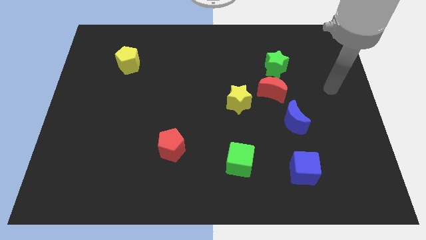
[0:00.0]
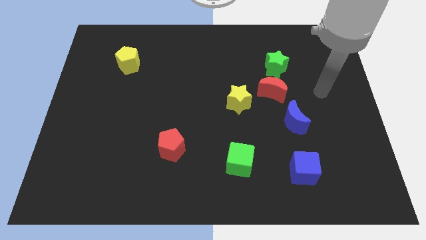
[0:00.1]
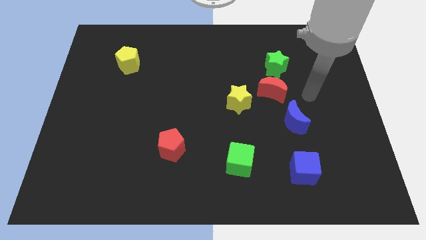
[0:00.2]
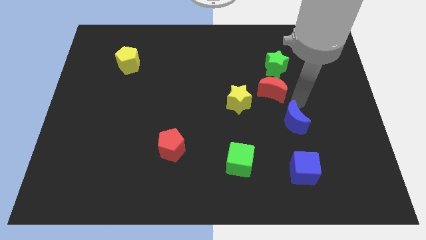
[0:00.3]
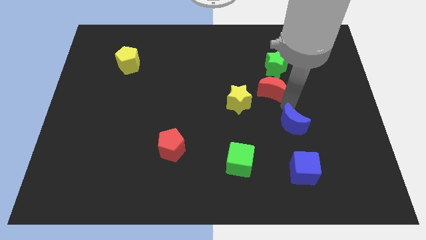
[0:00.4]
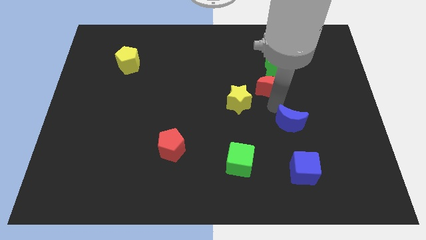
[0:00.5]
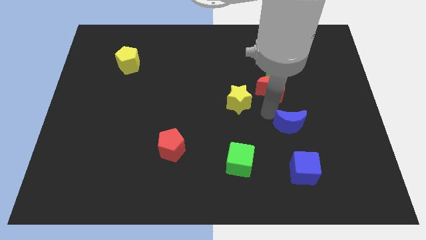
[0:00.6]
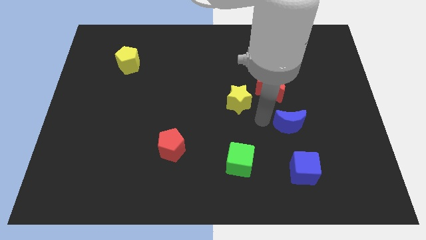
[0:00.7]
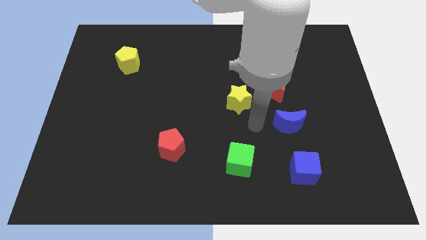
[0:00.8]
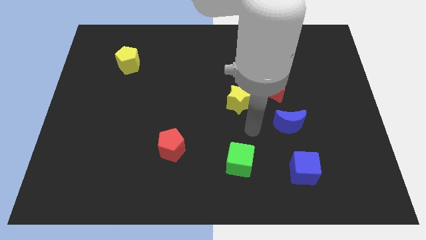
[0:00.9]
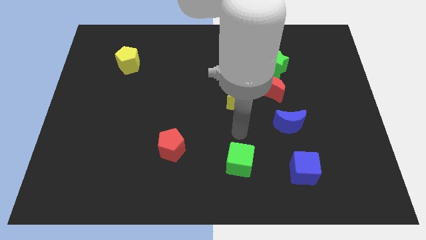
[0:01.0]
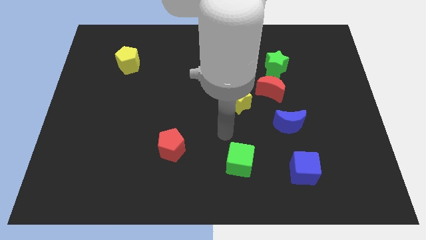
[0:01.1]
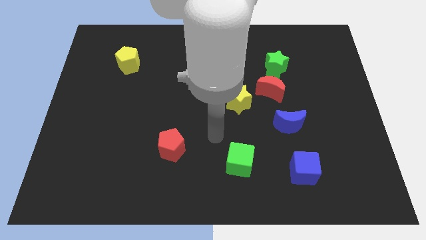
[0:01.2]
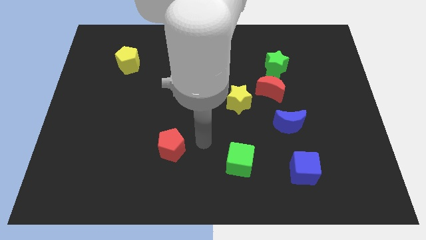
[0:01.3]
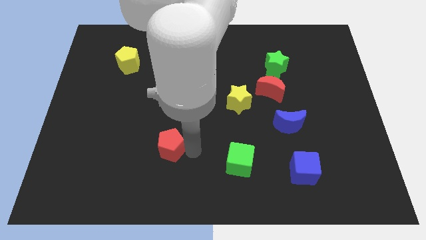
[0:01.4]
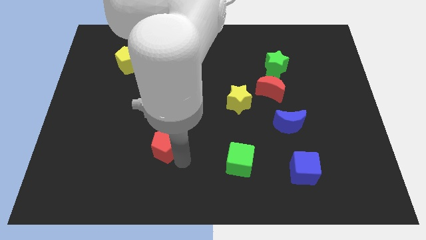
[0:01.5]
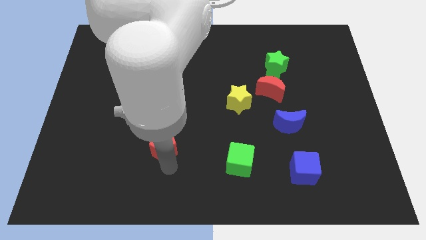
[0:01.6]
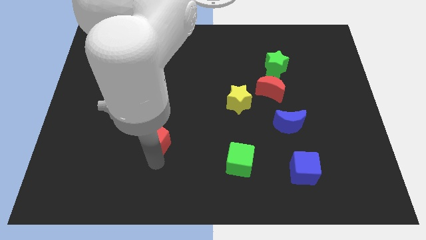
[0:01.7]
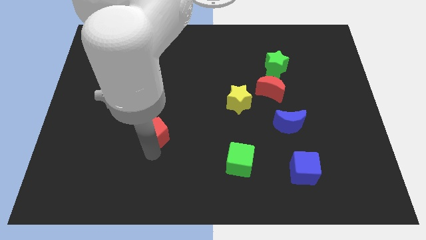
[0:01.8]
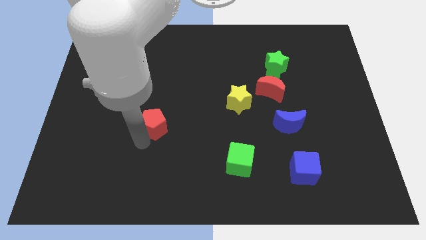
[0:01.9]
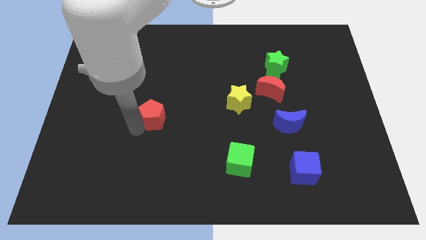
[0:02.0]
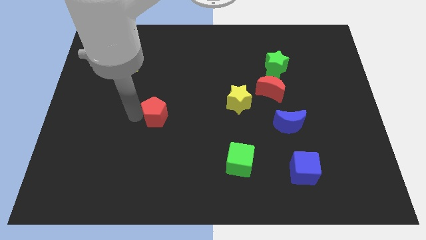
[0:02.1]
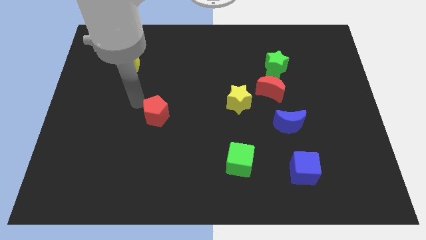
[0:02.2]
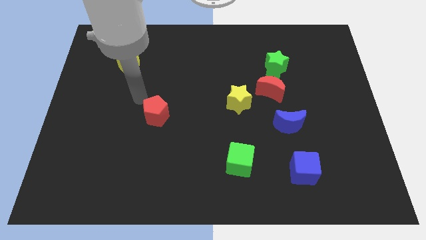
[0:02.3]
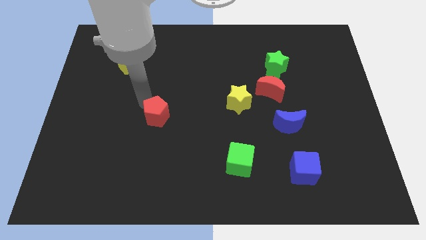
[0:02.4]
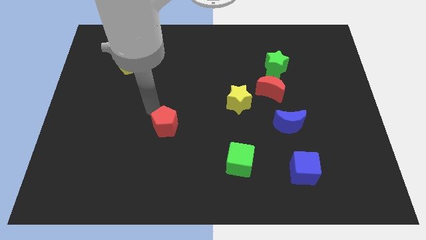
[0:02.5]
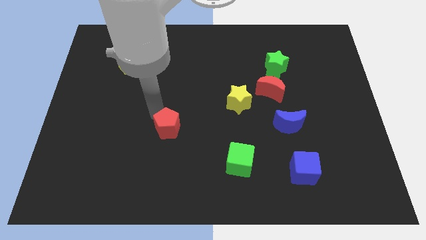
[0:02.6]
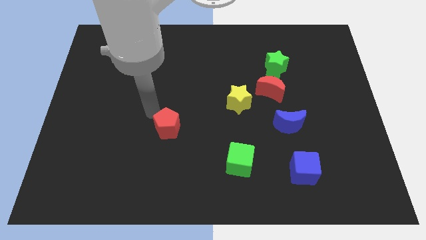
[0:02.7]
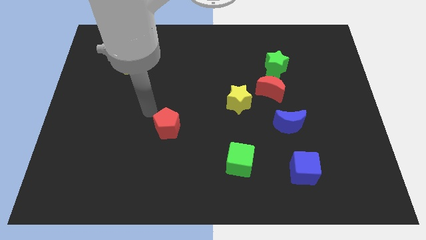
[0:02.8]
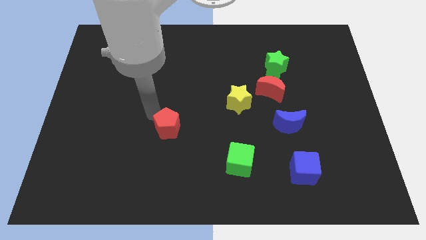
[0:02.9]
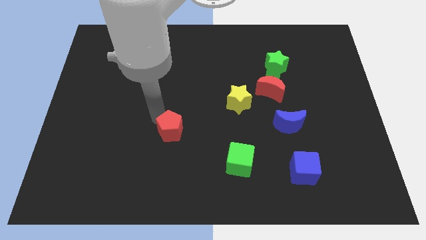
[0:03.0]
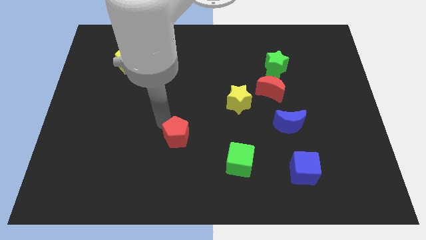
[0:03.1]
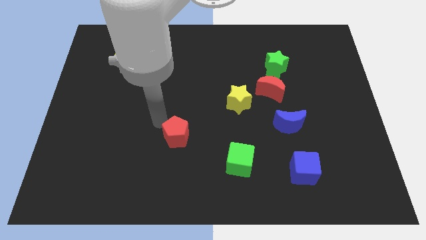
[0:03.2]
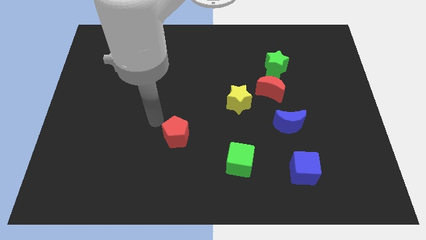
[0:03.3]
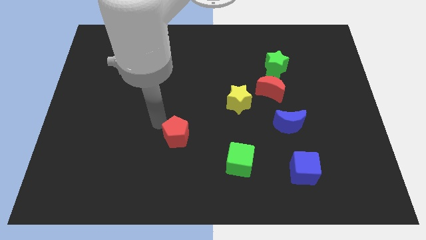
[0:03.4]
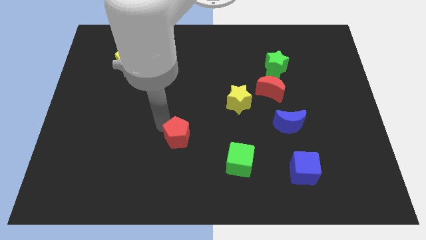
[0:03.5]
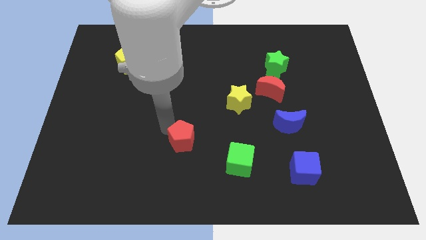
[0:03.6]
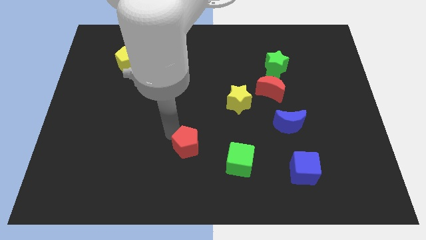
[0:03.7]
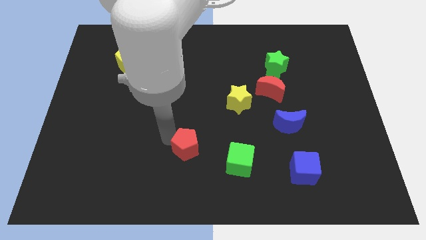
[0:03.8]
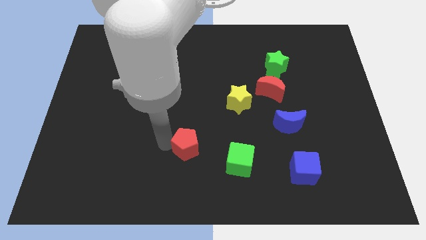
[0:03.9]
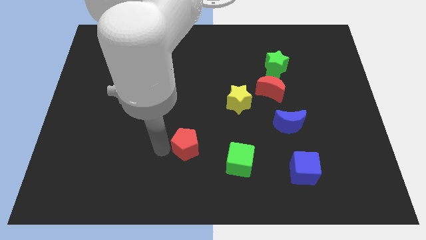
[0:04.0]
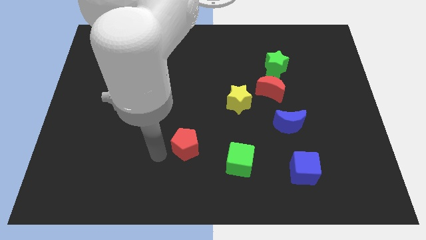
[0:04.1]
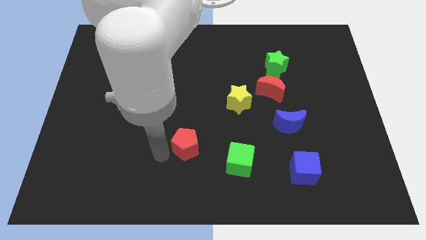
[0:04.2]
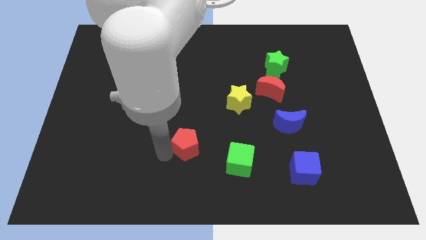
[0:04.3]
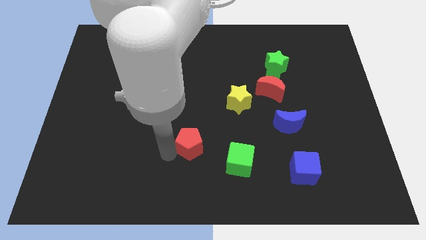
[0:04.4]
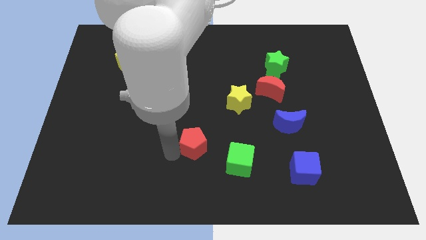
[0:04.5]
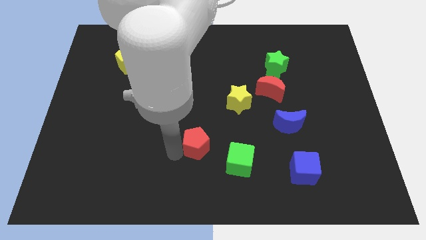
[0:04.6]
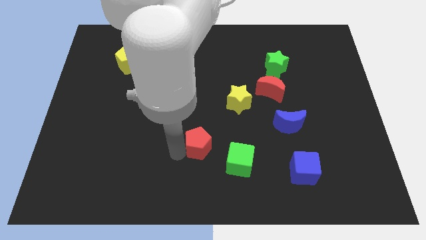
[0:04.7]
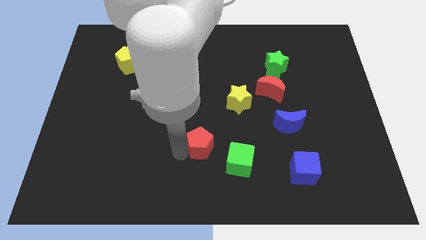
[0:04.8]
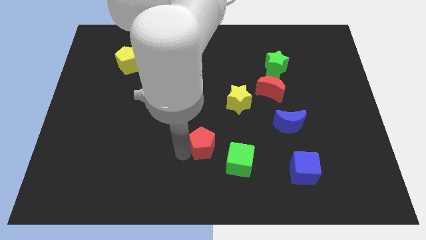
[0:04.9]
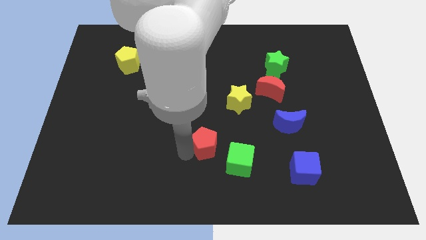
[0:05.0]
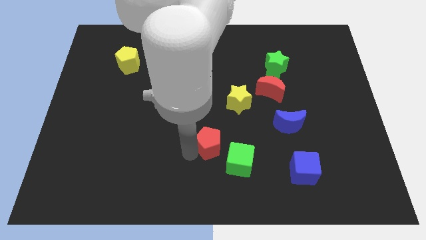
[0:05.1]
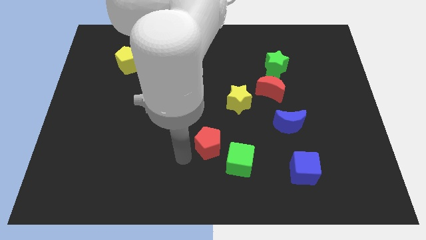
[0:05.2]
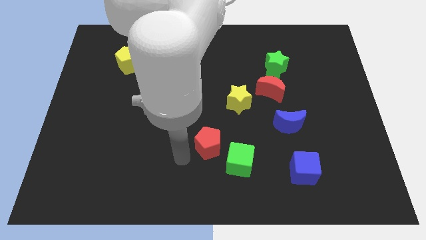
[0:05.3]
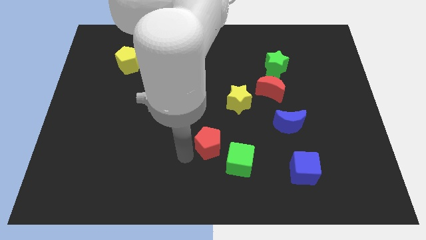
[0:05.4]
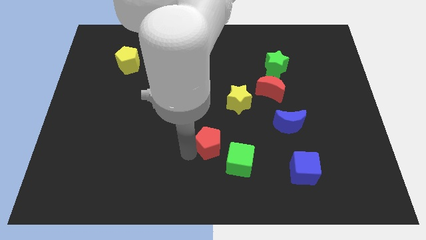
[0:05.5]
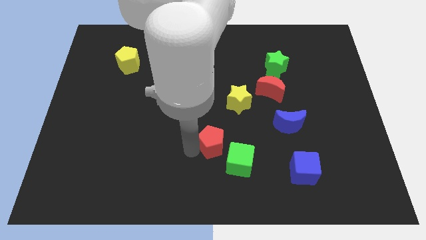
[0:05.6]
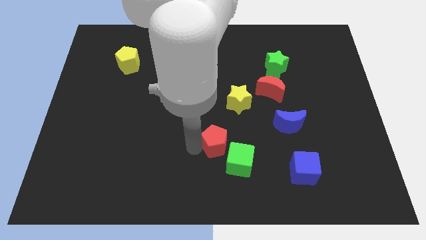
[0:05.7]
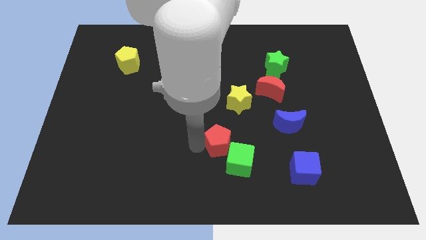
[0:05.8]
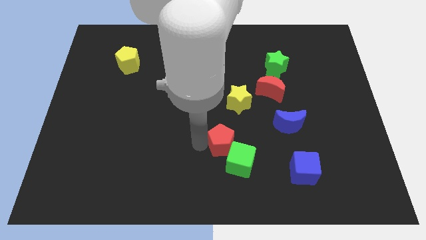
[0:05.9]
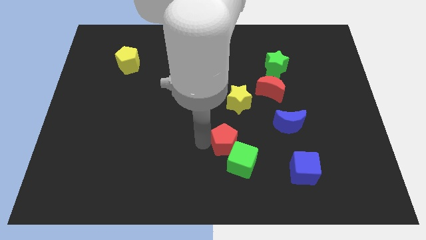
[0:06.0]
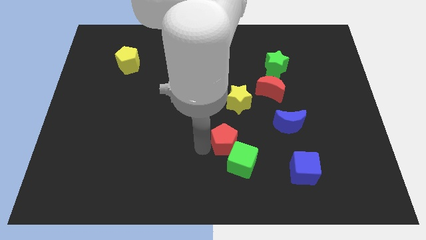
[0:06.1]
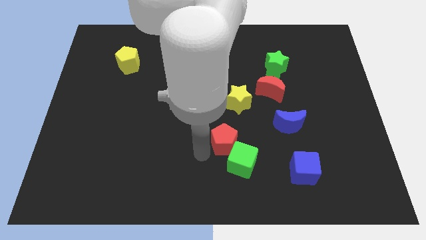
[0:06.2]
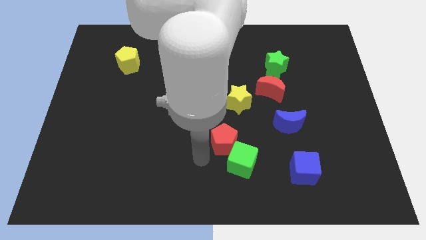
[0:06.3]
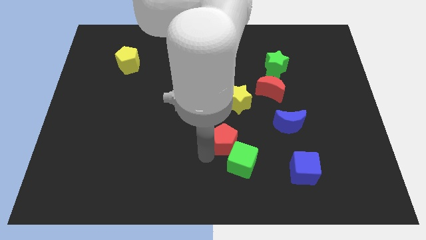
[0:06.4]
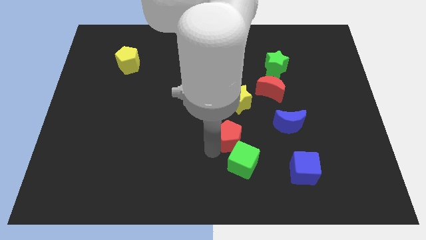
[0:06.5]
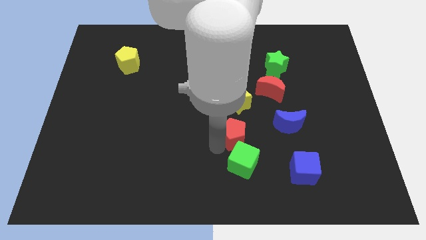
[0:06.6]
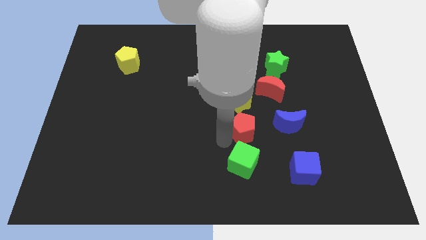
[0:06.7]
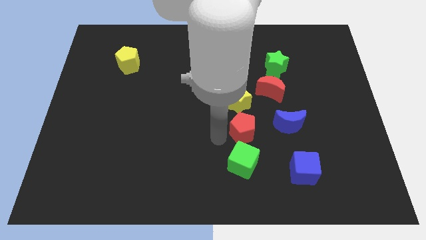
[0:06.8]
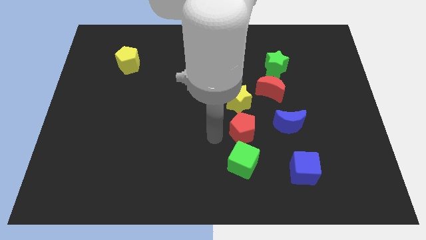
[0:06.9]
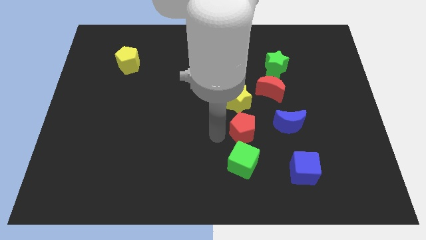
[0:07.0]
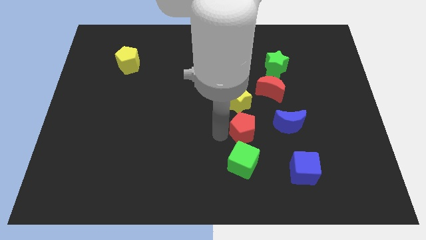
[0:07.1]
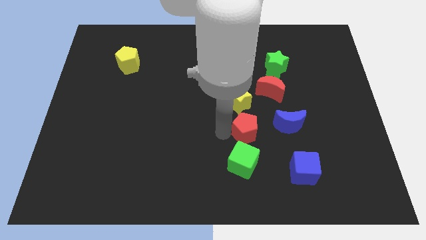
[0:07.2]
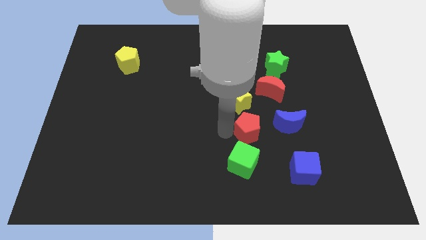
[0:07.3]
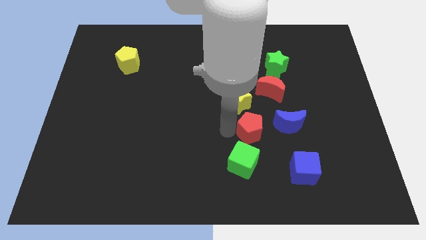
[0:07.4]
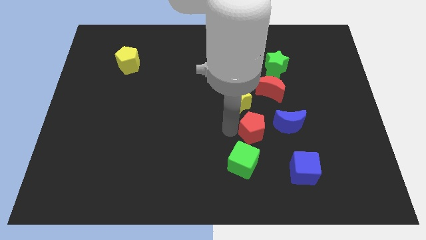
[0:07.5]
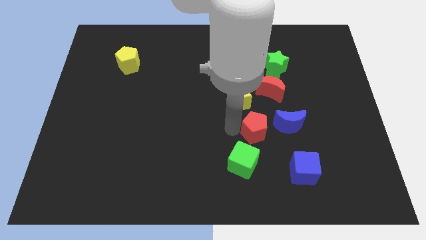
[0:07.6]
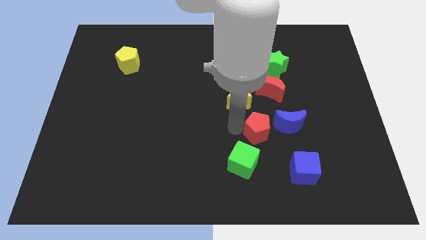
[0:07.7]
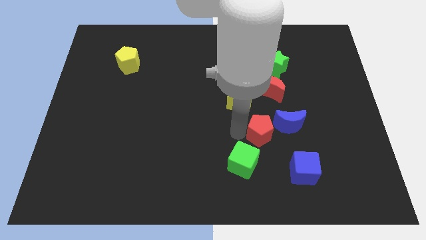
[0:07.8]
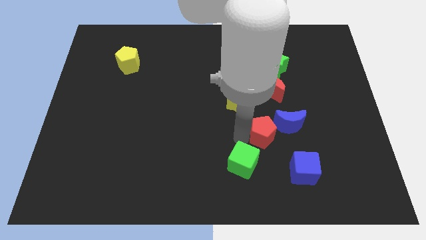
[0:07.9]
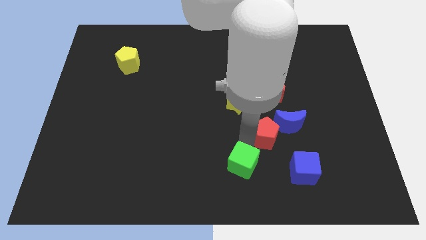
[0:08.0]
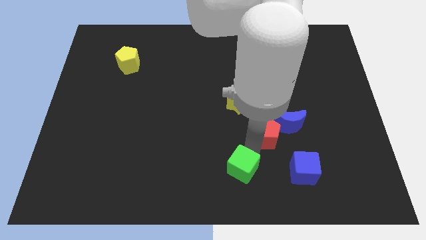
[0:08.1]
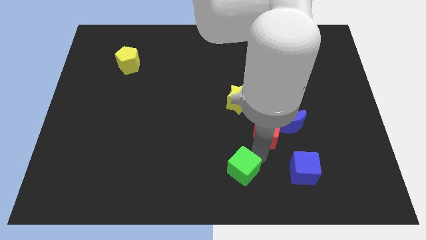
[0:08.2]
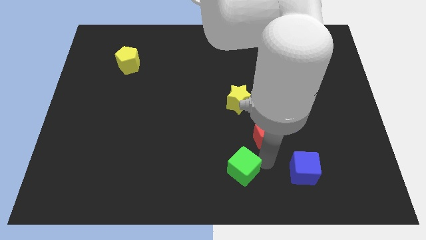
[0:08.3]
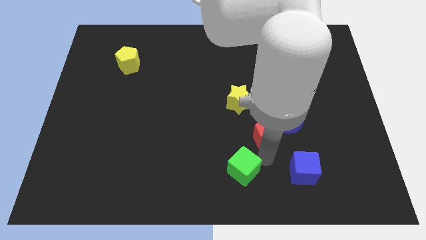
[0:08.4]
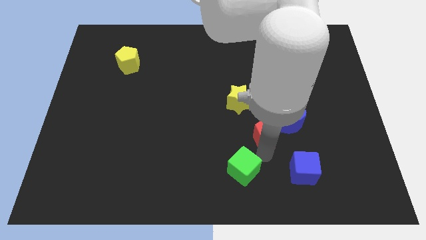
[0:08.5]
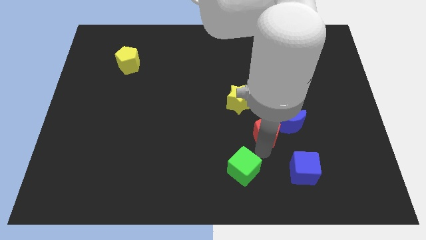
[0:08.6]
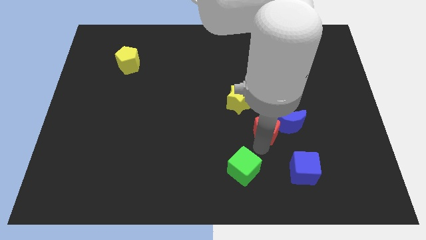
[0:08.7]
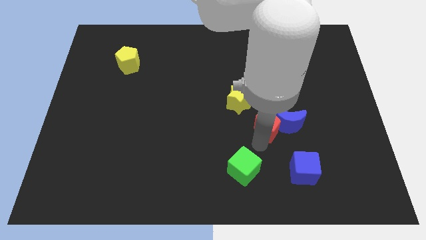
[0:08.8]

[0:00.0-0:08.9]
put the red pentagon diagonally up and to the left of the blue moon
